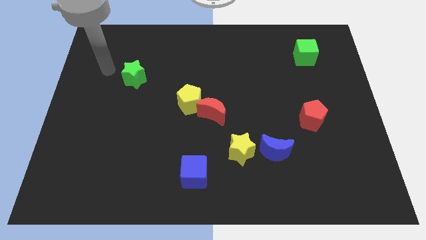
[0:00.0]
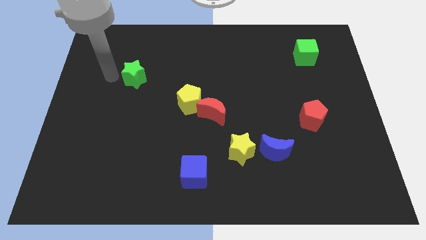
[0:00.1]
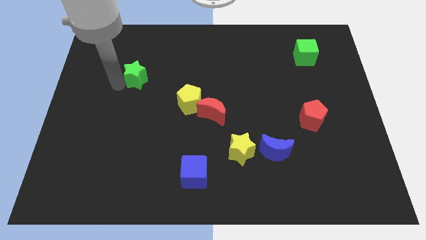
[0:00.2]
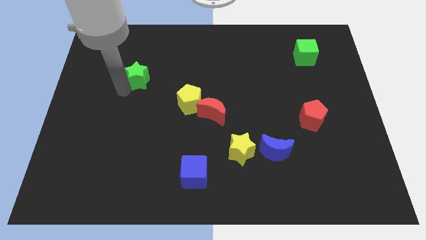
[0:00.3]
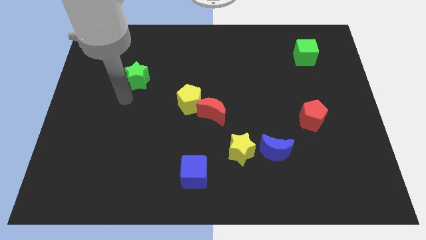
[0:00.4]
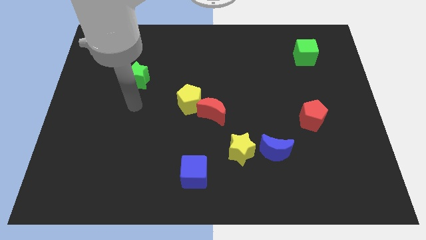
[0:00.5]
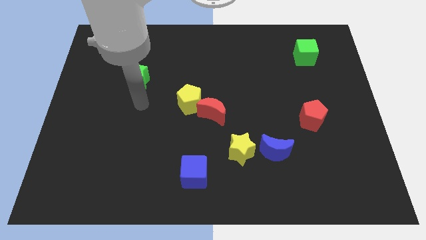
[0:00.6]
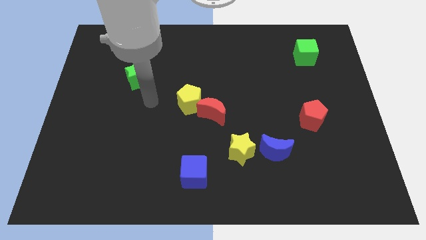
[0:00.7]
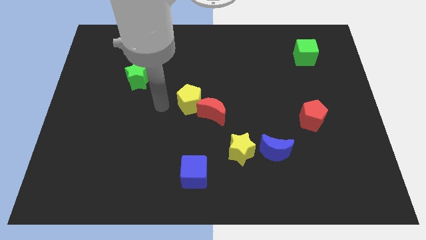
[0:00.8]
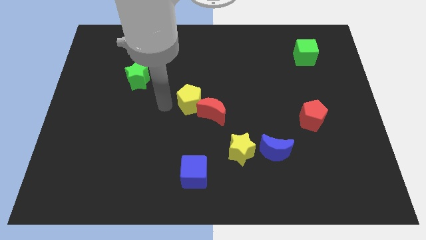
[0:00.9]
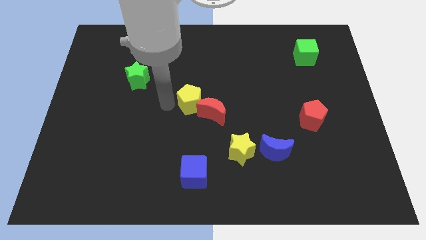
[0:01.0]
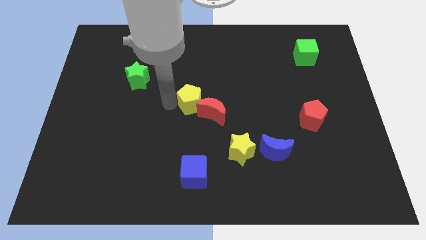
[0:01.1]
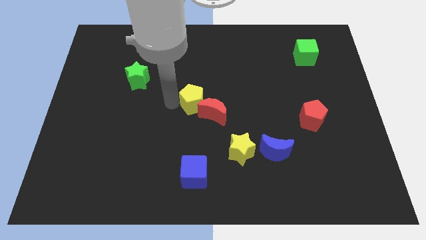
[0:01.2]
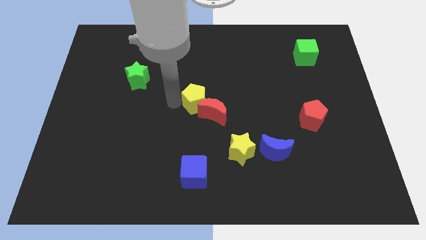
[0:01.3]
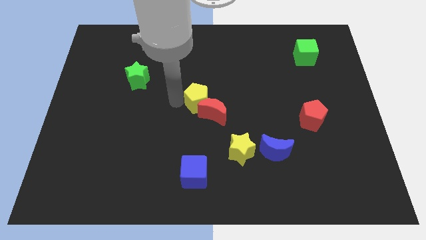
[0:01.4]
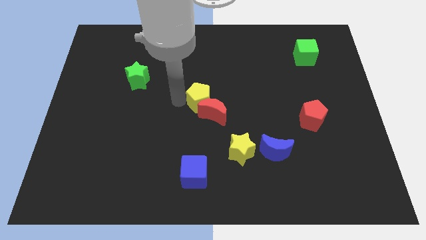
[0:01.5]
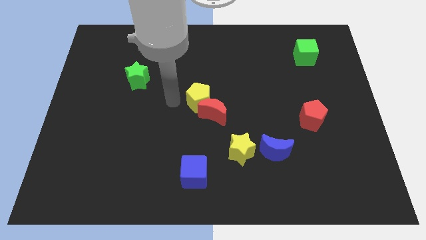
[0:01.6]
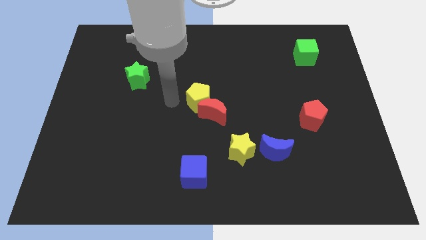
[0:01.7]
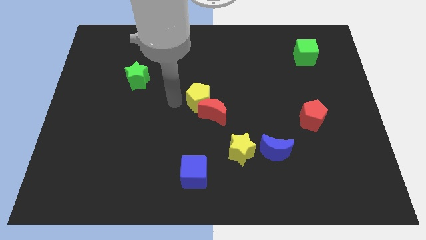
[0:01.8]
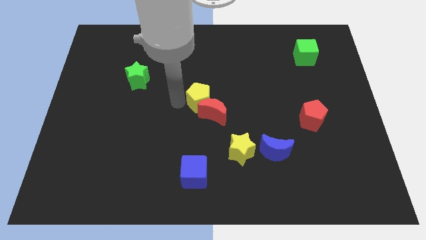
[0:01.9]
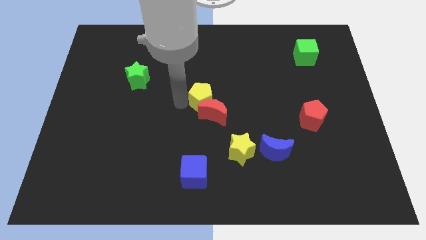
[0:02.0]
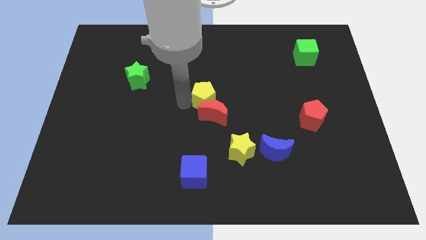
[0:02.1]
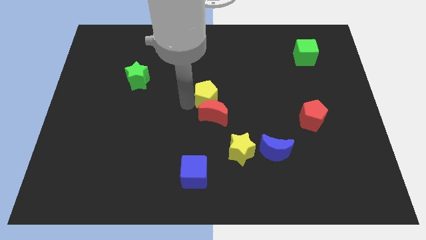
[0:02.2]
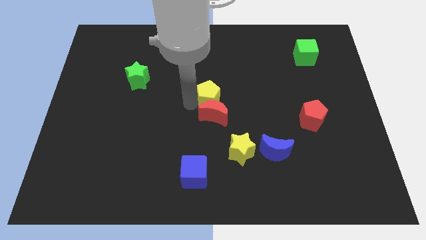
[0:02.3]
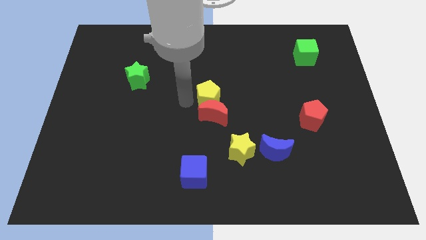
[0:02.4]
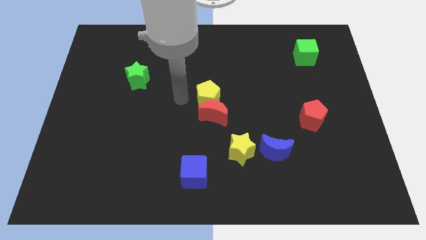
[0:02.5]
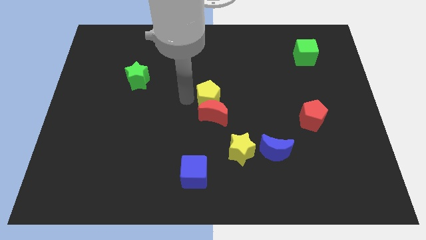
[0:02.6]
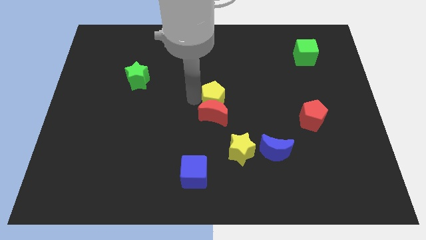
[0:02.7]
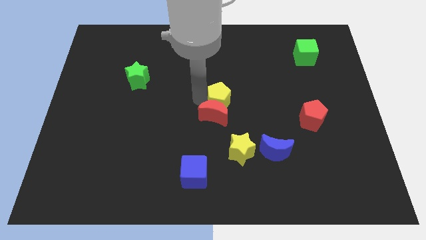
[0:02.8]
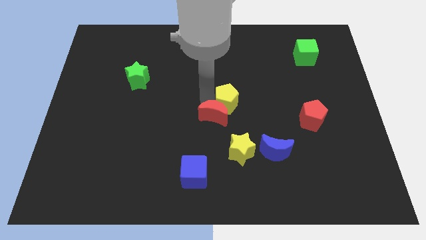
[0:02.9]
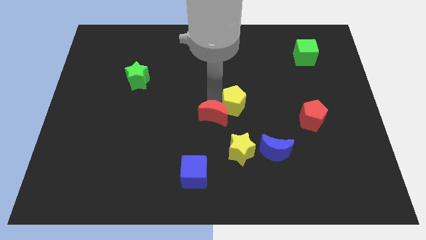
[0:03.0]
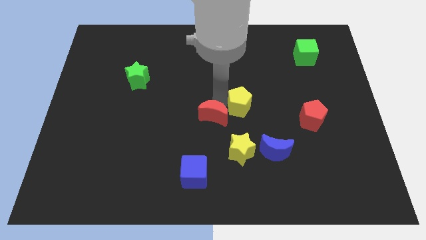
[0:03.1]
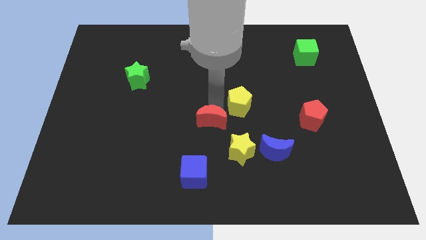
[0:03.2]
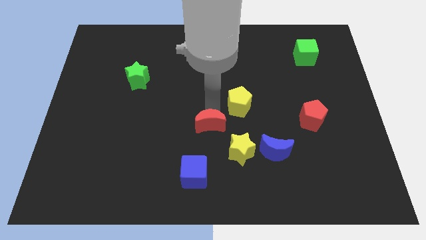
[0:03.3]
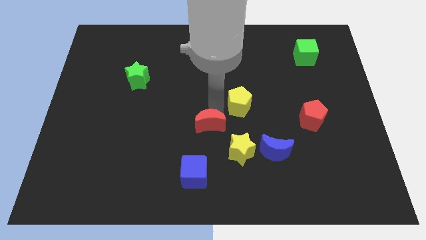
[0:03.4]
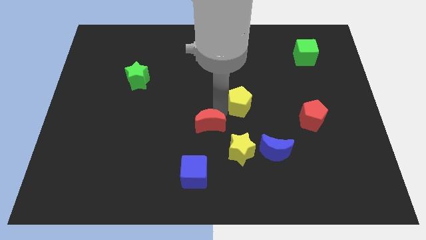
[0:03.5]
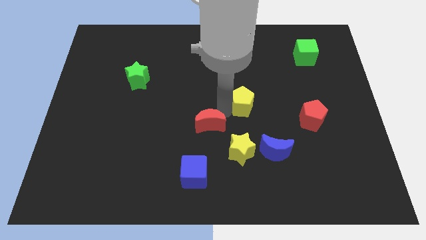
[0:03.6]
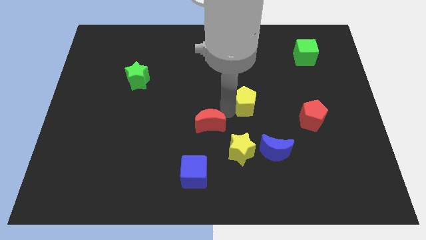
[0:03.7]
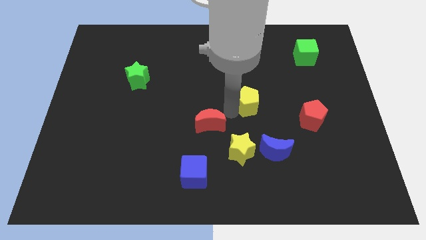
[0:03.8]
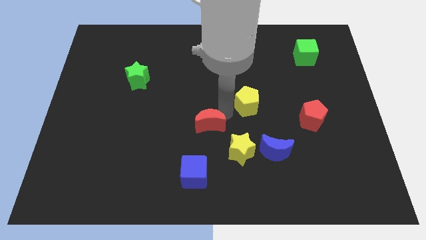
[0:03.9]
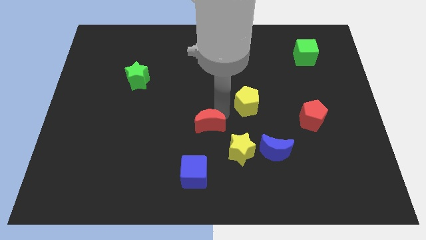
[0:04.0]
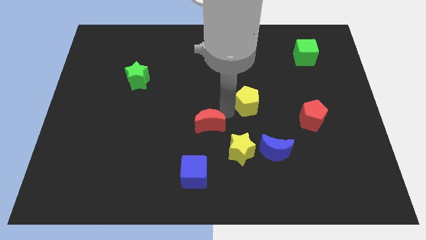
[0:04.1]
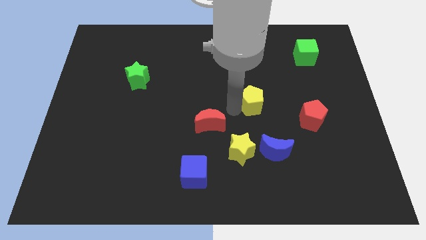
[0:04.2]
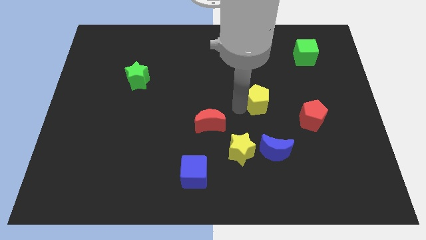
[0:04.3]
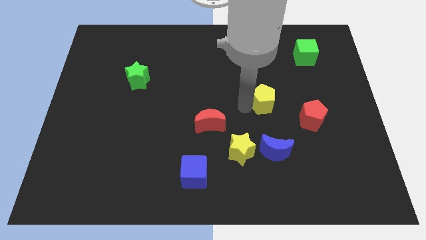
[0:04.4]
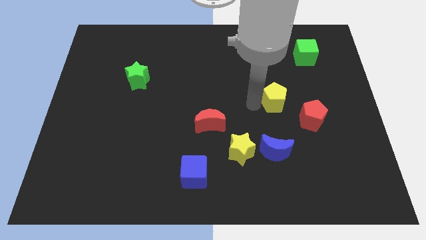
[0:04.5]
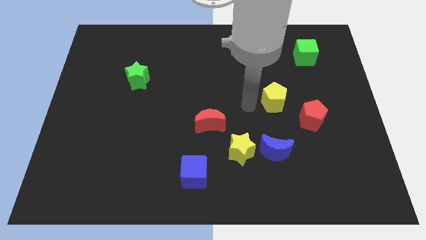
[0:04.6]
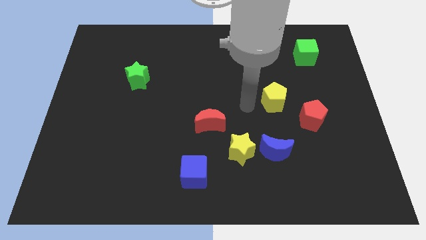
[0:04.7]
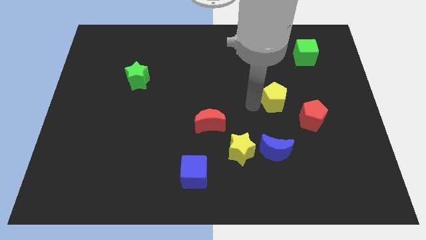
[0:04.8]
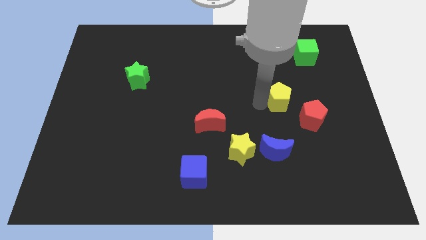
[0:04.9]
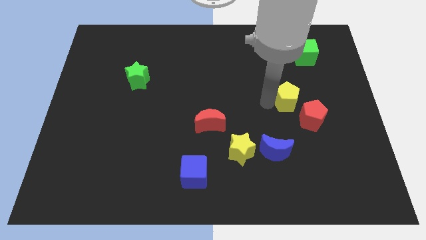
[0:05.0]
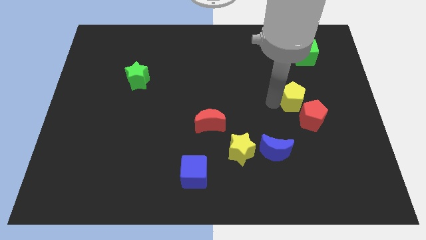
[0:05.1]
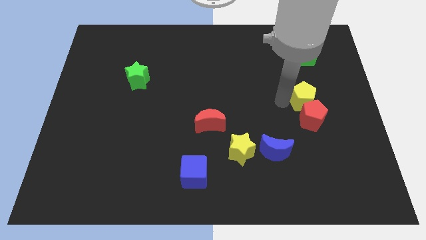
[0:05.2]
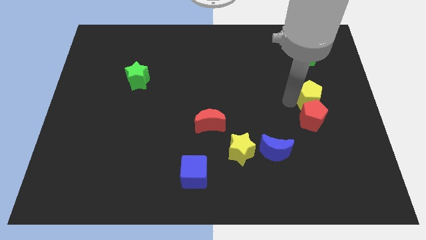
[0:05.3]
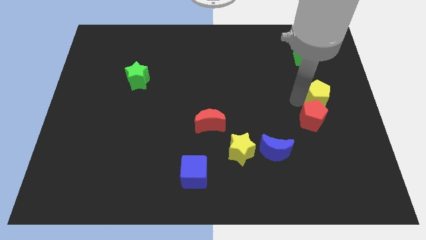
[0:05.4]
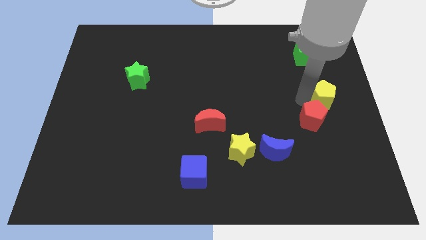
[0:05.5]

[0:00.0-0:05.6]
put the yellow pentagon to the center right

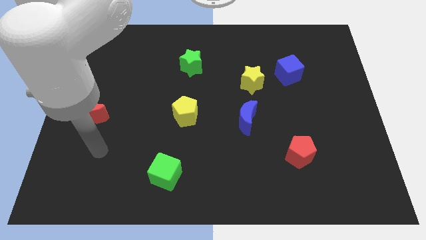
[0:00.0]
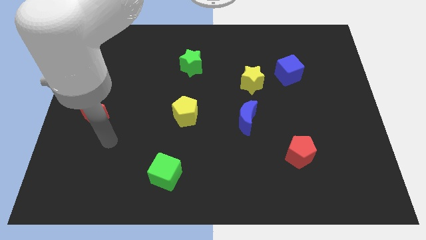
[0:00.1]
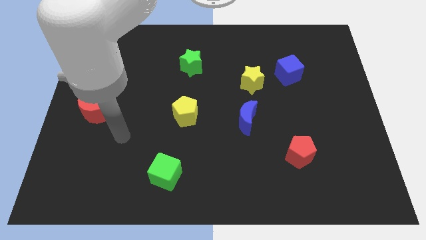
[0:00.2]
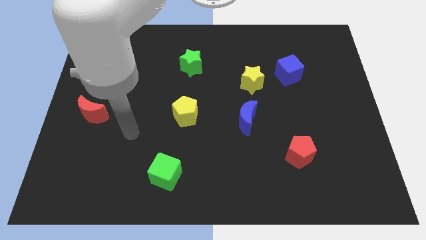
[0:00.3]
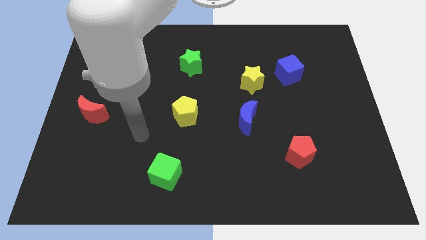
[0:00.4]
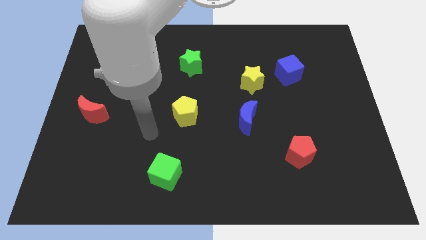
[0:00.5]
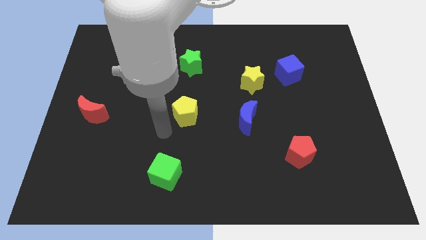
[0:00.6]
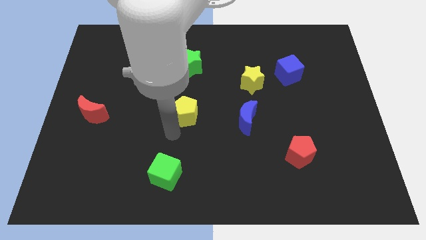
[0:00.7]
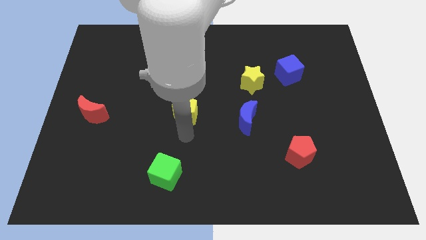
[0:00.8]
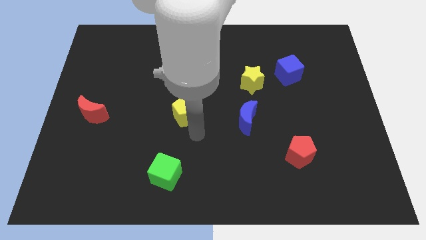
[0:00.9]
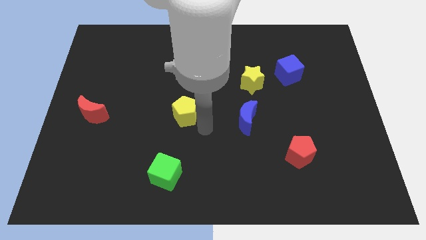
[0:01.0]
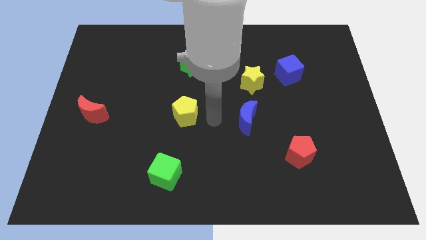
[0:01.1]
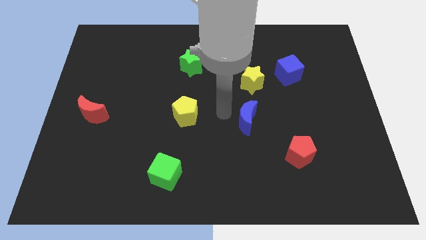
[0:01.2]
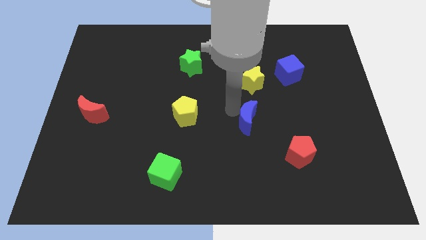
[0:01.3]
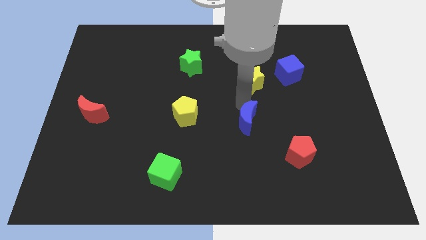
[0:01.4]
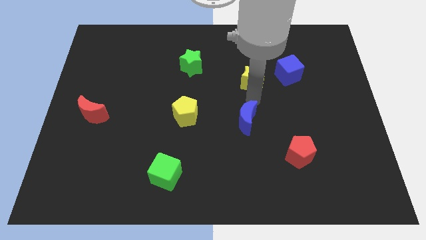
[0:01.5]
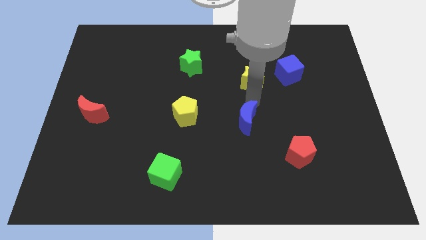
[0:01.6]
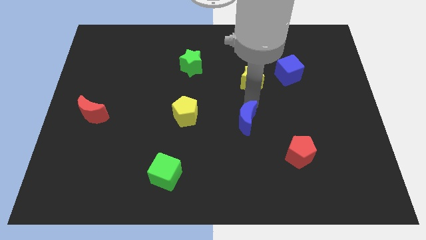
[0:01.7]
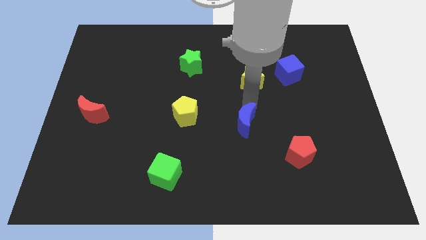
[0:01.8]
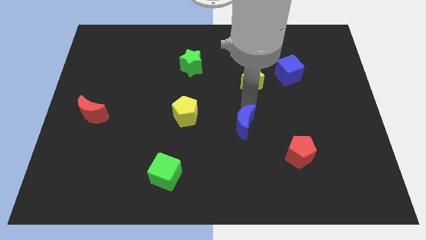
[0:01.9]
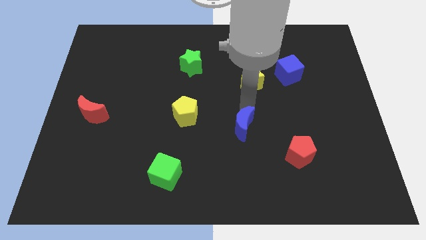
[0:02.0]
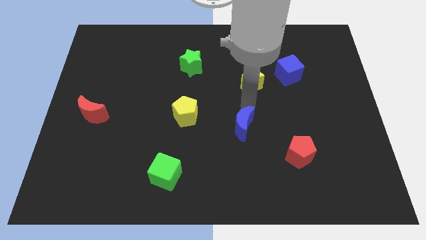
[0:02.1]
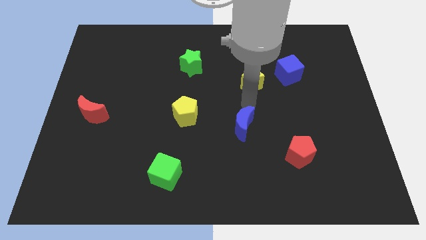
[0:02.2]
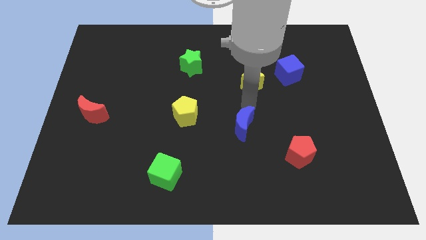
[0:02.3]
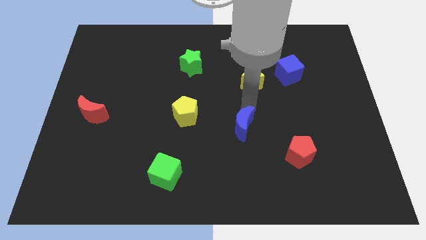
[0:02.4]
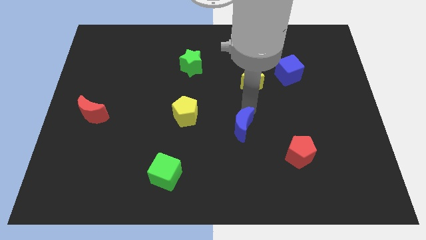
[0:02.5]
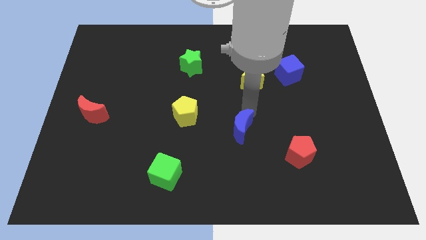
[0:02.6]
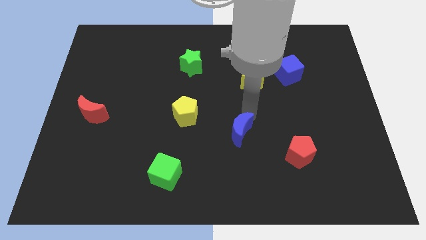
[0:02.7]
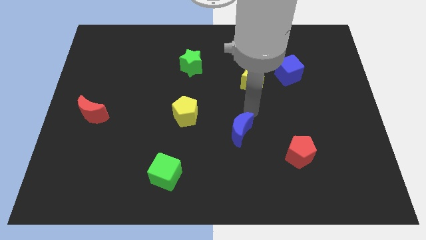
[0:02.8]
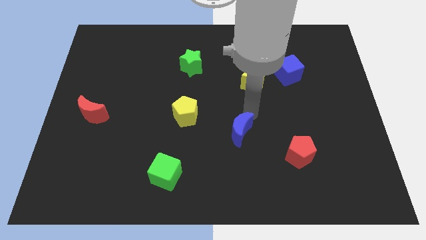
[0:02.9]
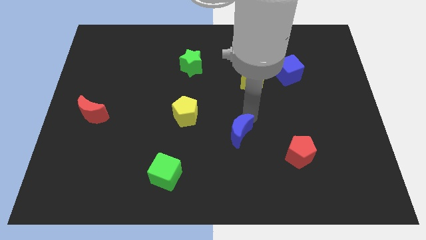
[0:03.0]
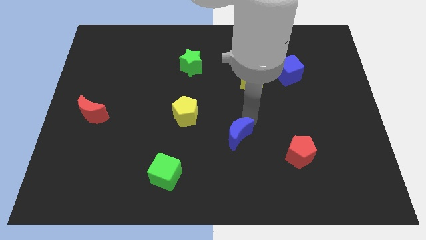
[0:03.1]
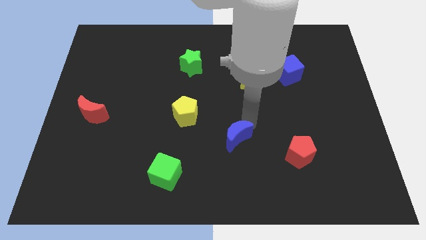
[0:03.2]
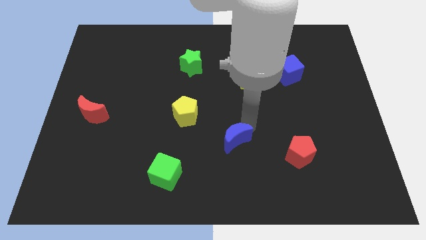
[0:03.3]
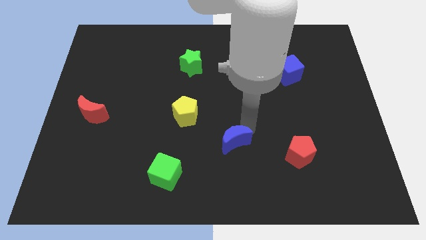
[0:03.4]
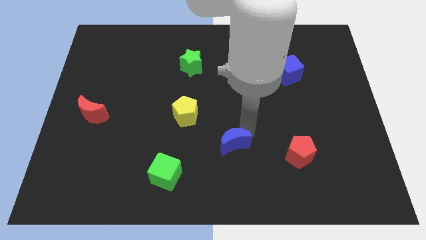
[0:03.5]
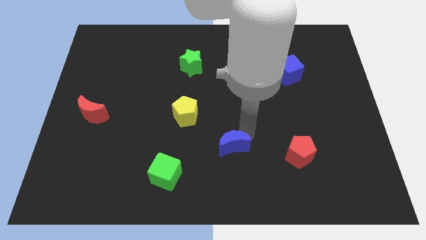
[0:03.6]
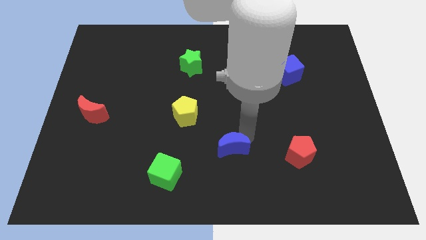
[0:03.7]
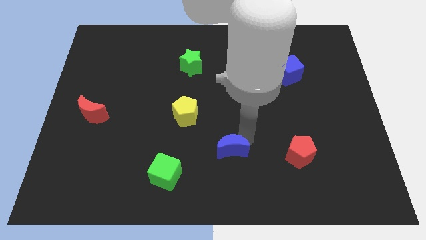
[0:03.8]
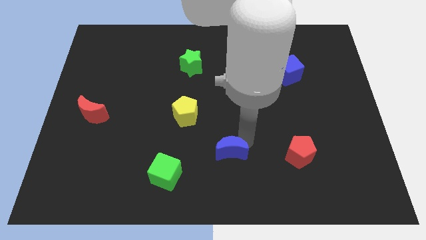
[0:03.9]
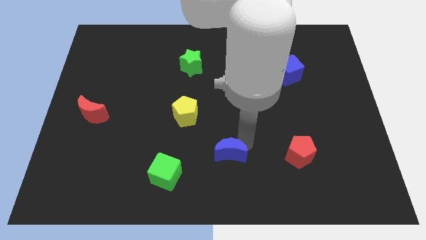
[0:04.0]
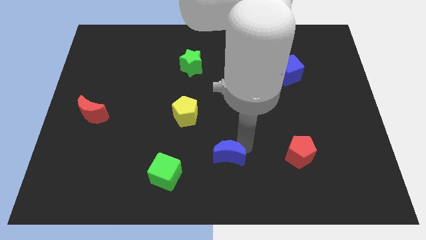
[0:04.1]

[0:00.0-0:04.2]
slide the blue moon to the bottom
